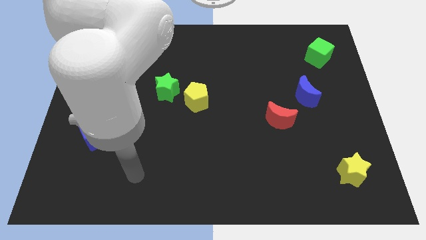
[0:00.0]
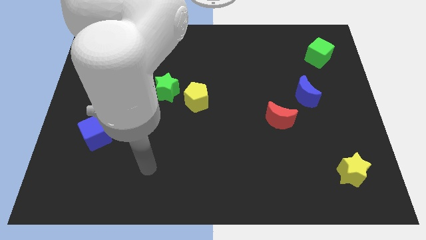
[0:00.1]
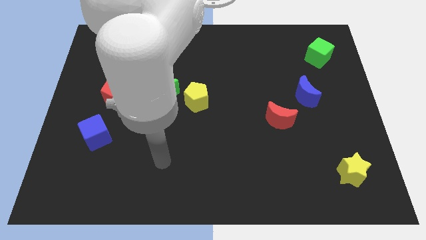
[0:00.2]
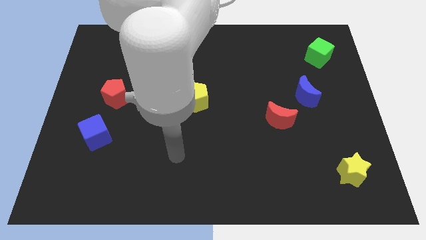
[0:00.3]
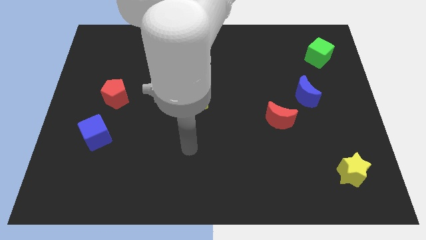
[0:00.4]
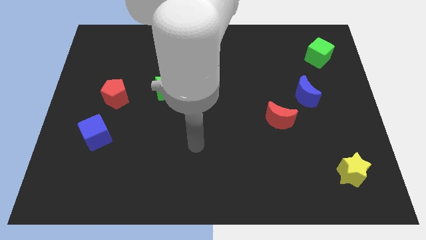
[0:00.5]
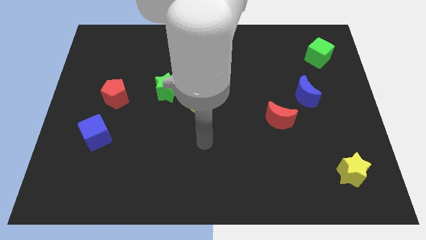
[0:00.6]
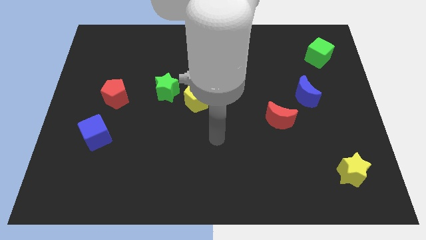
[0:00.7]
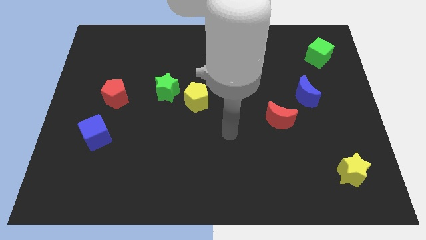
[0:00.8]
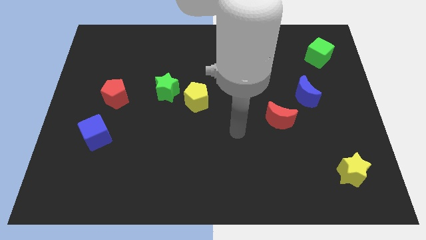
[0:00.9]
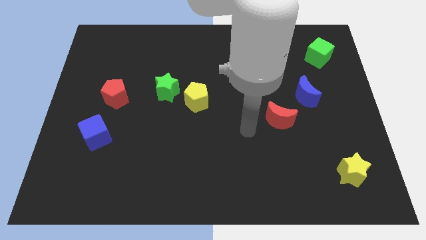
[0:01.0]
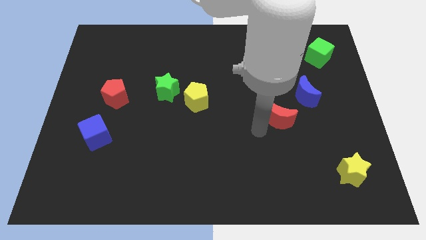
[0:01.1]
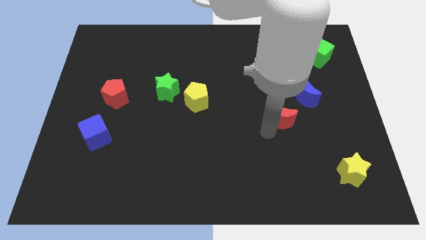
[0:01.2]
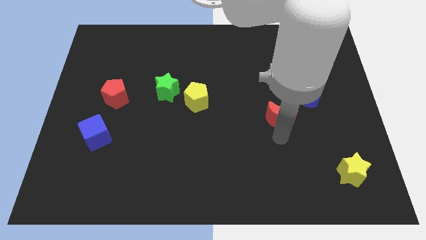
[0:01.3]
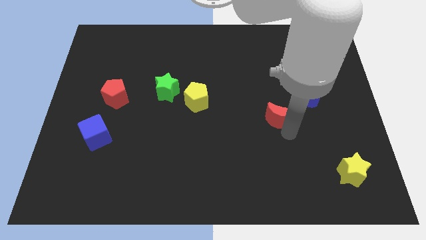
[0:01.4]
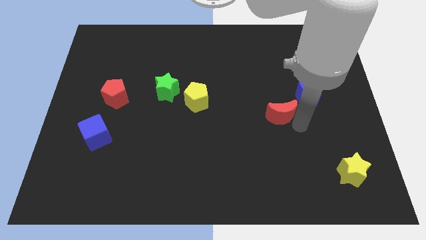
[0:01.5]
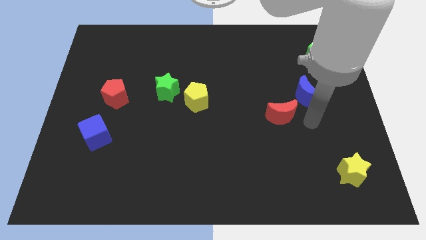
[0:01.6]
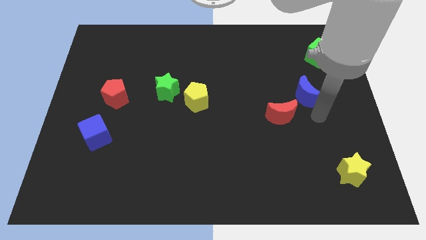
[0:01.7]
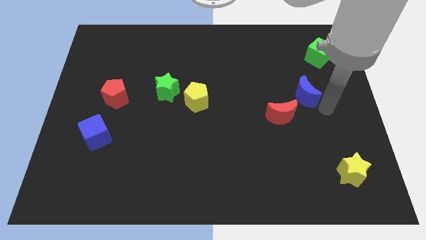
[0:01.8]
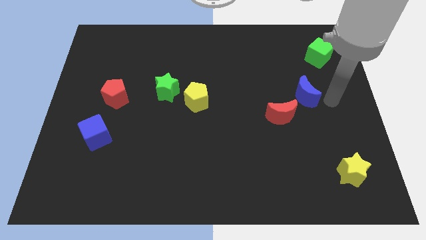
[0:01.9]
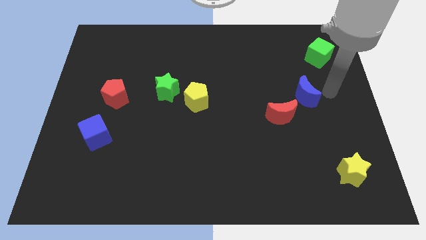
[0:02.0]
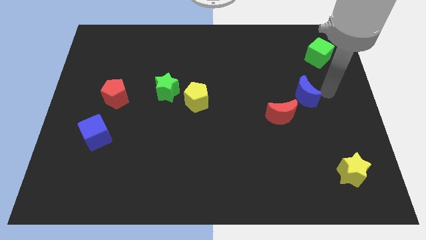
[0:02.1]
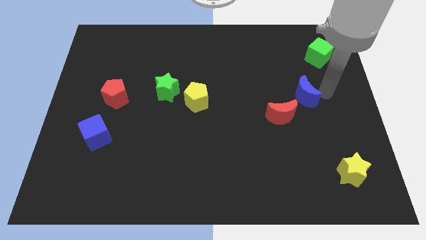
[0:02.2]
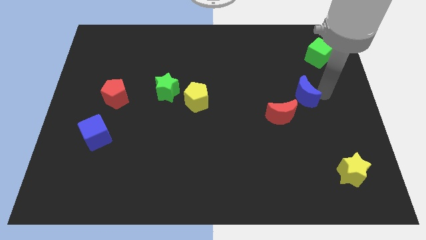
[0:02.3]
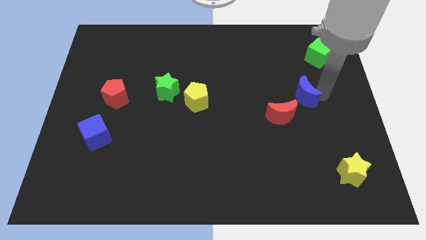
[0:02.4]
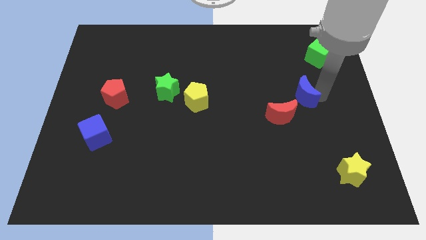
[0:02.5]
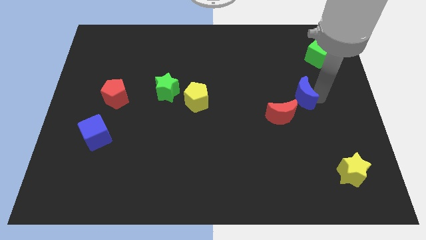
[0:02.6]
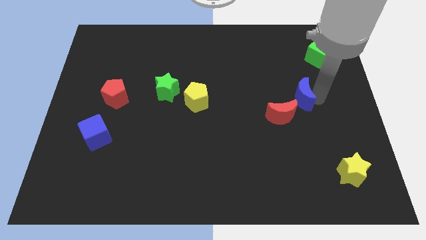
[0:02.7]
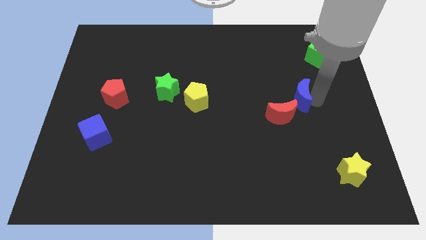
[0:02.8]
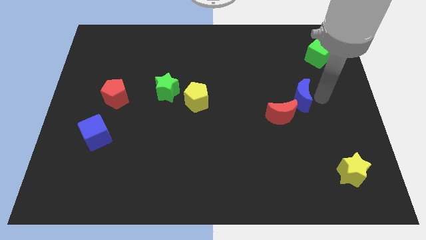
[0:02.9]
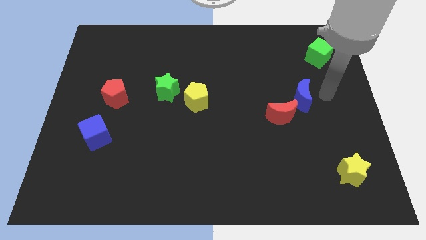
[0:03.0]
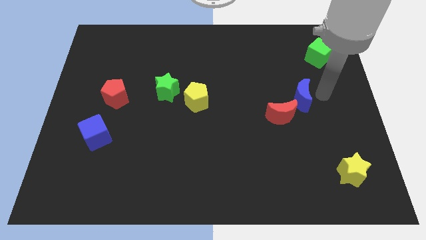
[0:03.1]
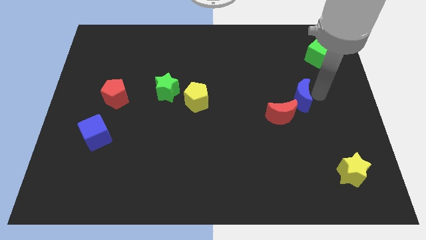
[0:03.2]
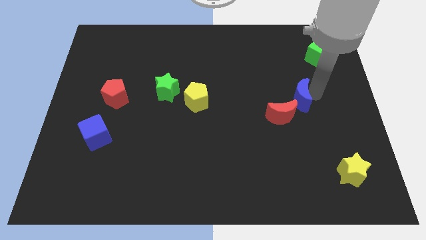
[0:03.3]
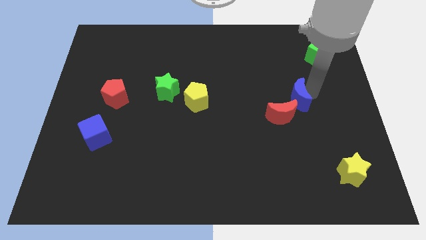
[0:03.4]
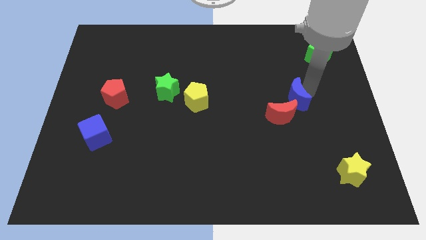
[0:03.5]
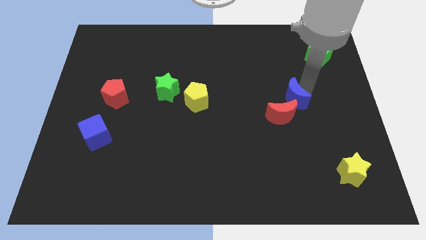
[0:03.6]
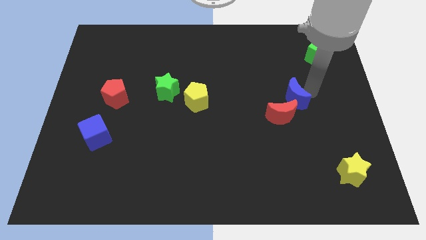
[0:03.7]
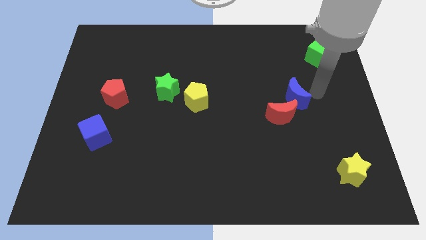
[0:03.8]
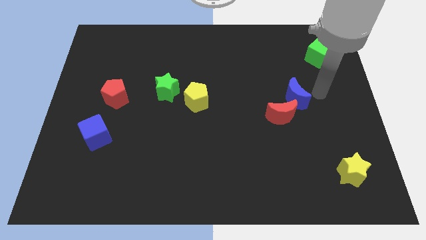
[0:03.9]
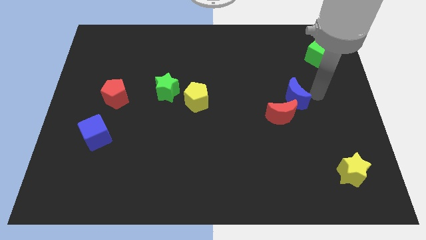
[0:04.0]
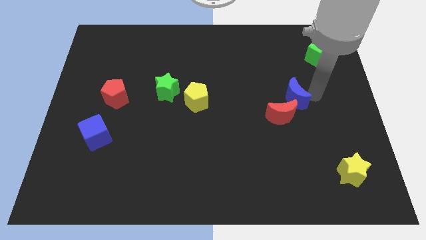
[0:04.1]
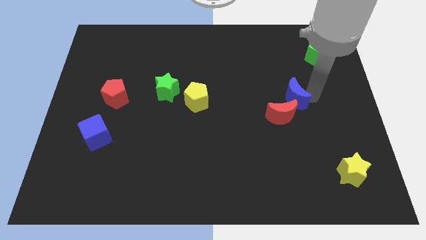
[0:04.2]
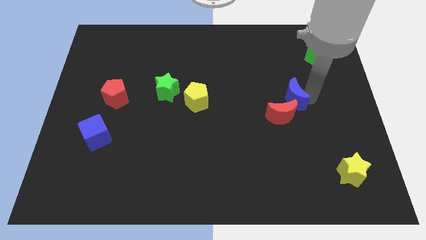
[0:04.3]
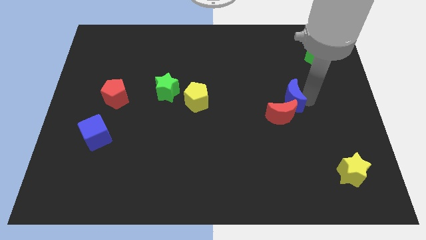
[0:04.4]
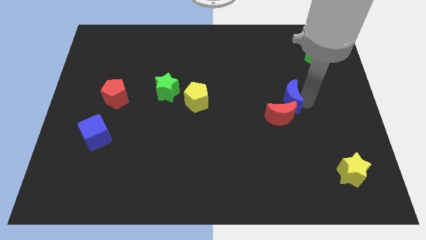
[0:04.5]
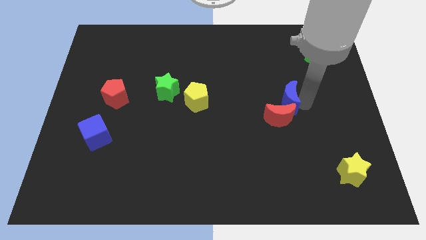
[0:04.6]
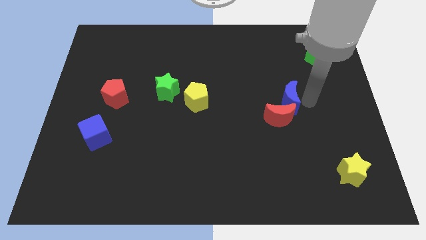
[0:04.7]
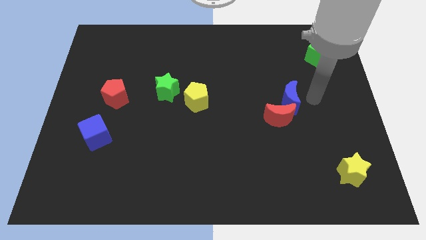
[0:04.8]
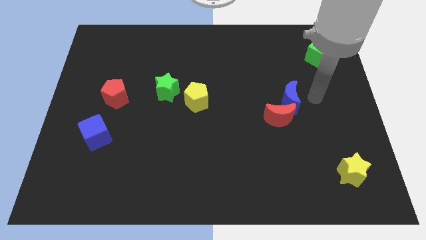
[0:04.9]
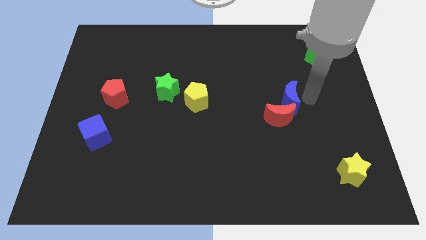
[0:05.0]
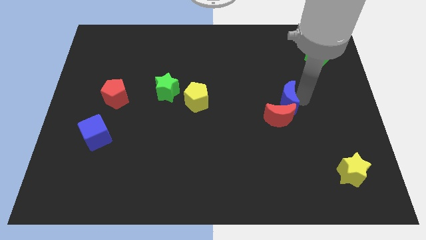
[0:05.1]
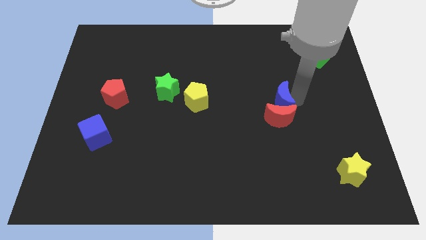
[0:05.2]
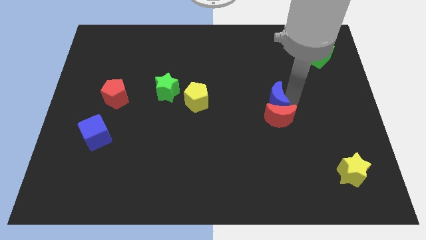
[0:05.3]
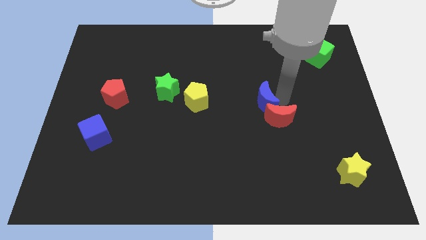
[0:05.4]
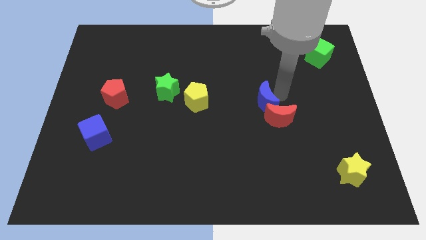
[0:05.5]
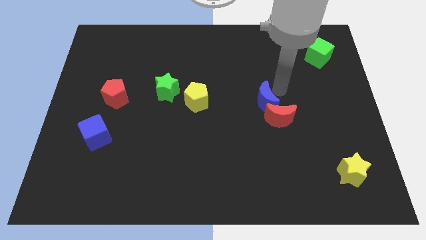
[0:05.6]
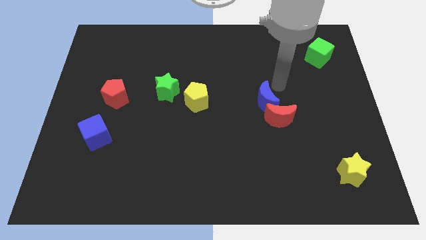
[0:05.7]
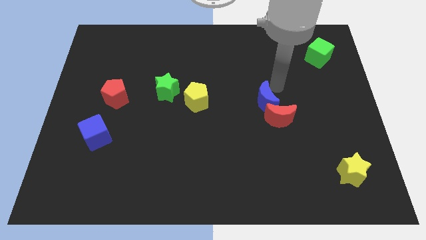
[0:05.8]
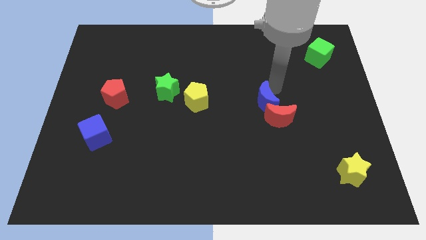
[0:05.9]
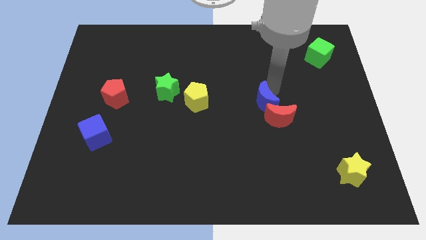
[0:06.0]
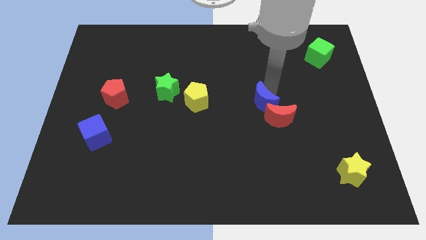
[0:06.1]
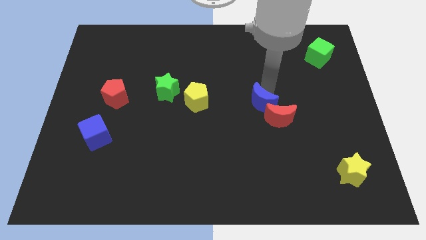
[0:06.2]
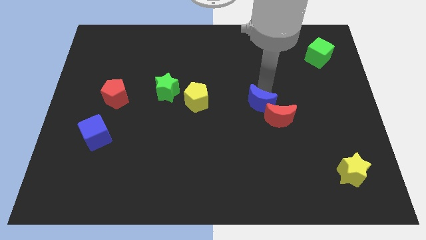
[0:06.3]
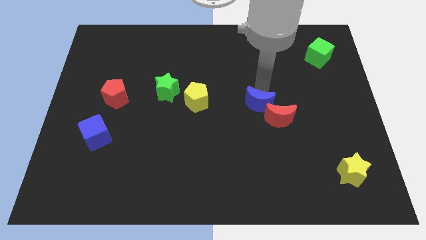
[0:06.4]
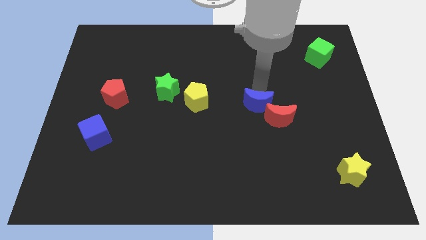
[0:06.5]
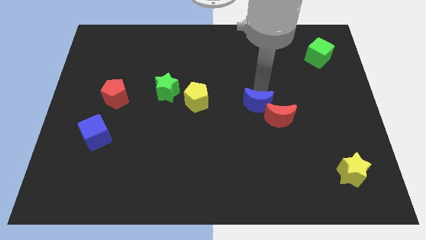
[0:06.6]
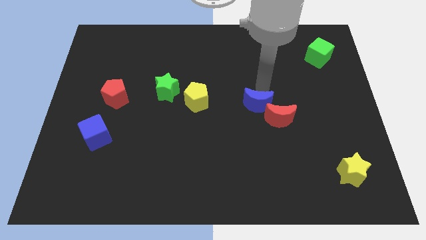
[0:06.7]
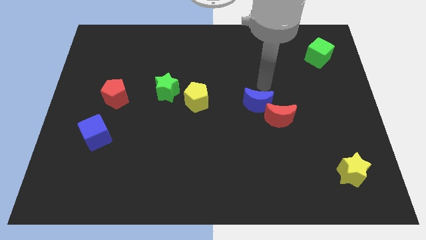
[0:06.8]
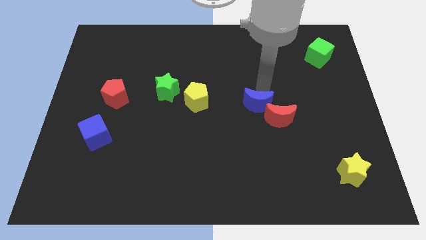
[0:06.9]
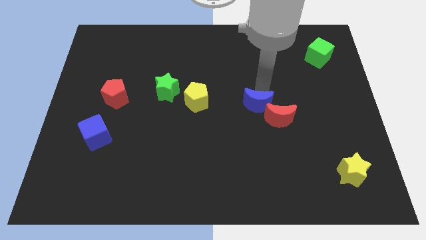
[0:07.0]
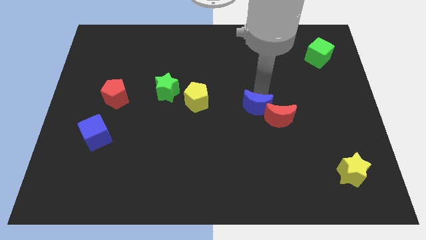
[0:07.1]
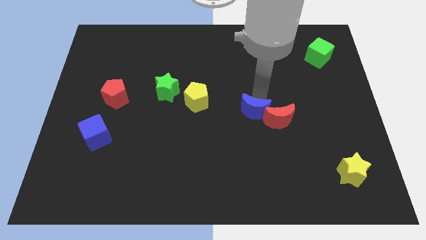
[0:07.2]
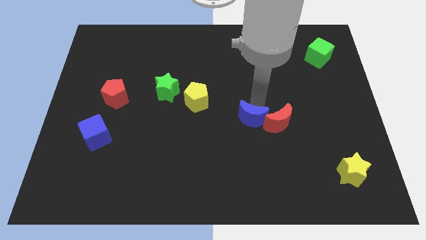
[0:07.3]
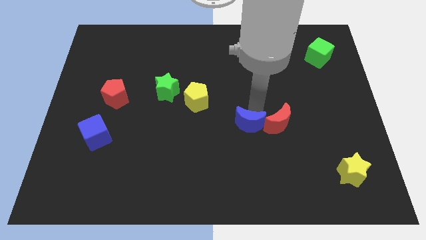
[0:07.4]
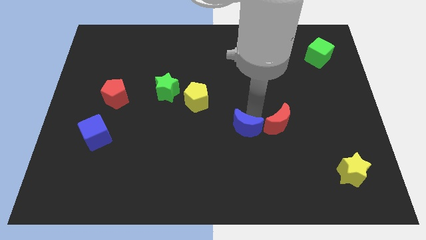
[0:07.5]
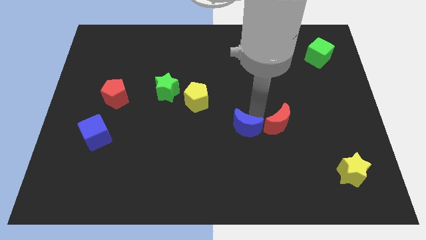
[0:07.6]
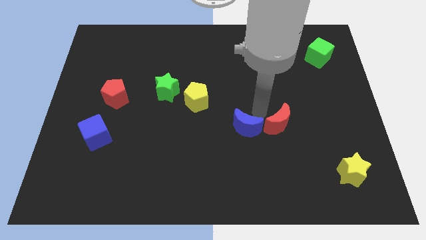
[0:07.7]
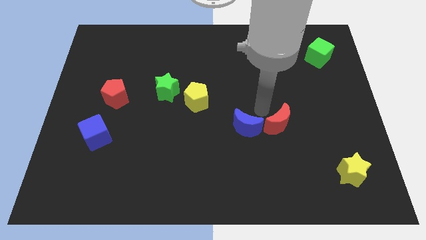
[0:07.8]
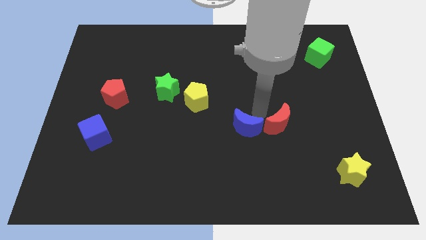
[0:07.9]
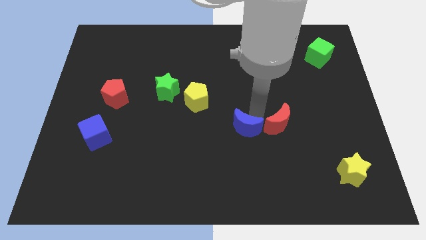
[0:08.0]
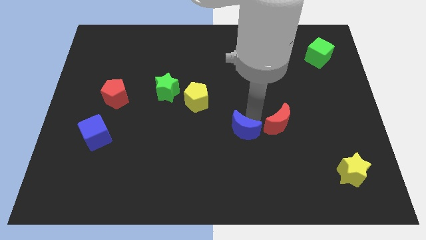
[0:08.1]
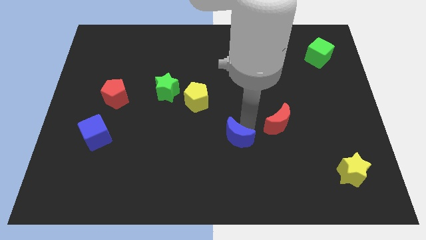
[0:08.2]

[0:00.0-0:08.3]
move the blue moon down and left diagonally
